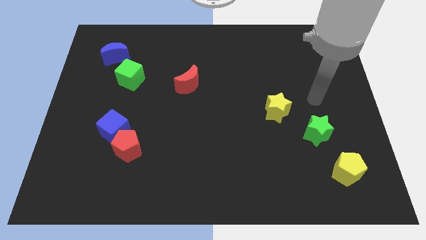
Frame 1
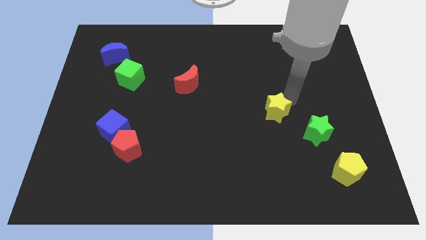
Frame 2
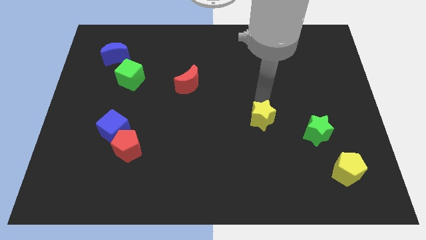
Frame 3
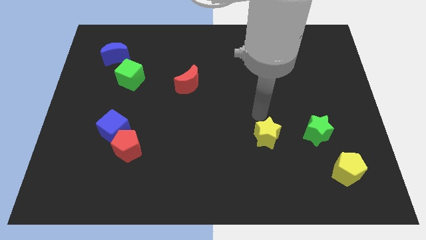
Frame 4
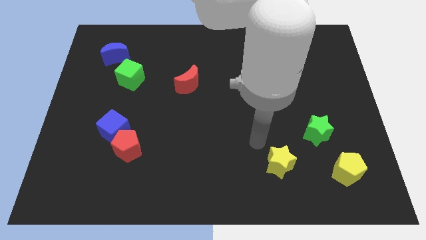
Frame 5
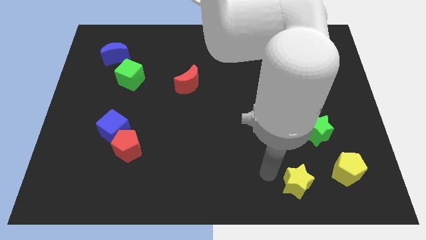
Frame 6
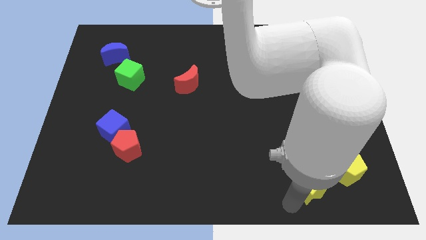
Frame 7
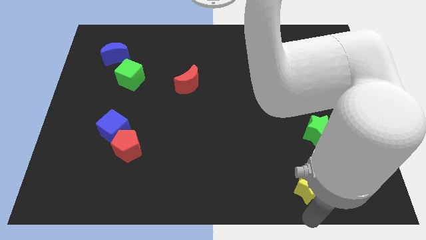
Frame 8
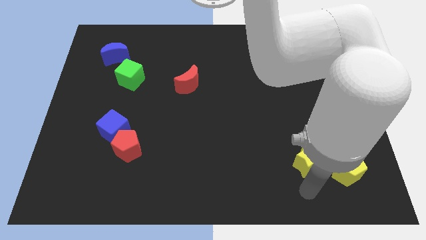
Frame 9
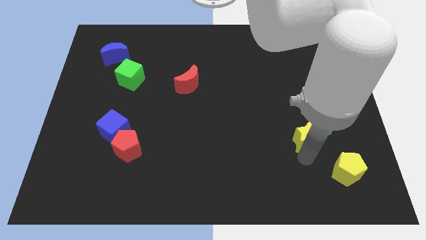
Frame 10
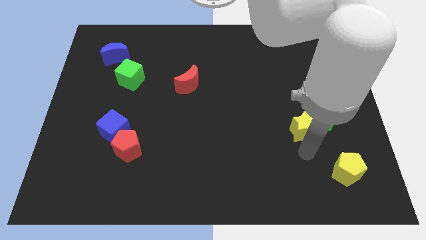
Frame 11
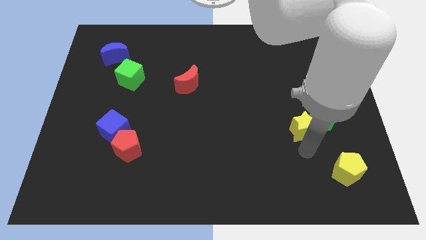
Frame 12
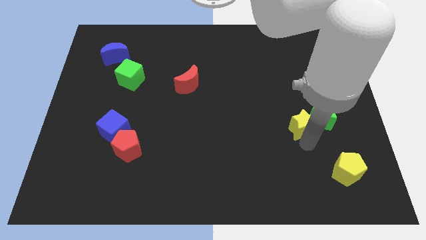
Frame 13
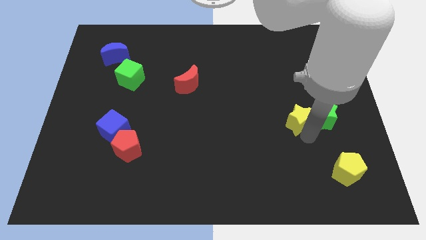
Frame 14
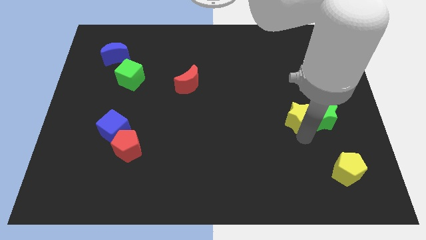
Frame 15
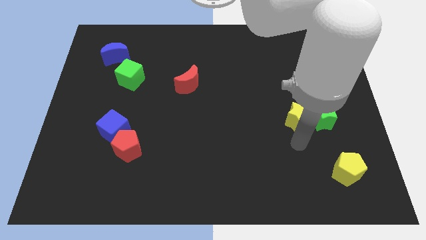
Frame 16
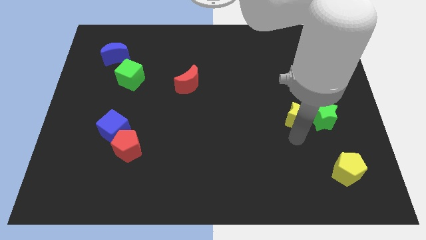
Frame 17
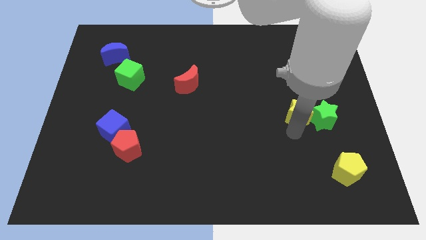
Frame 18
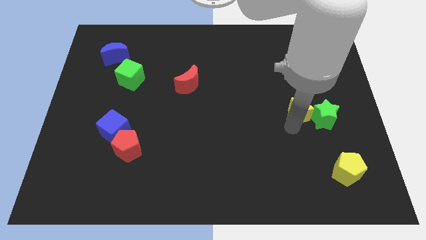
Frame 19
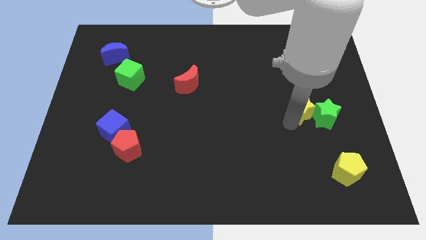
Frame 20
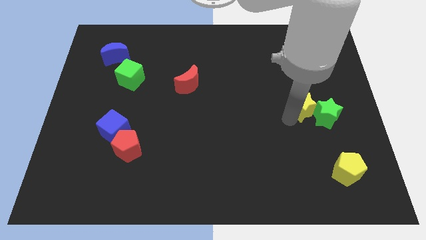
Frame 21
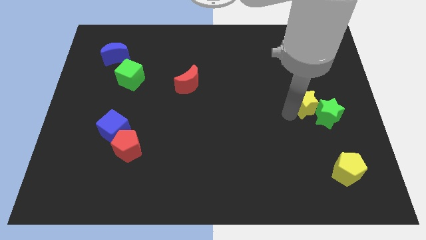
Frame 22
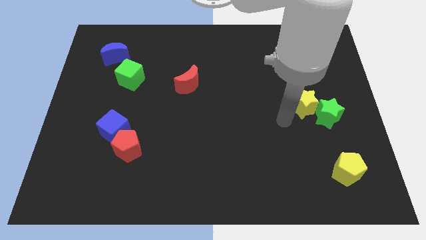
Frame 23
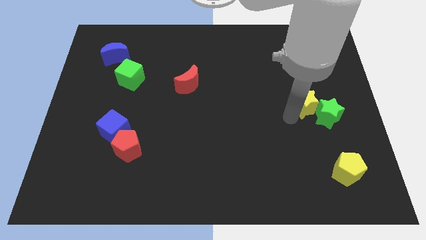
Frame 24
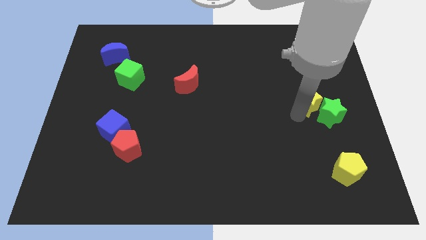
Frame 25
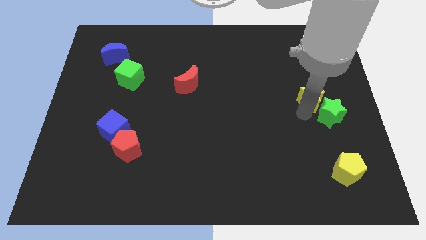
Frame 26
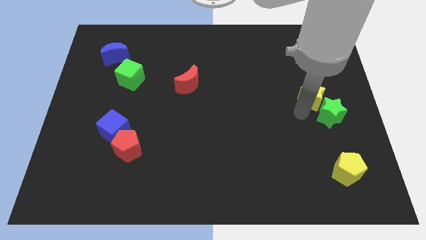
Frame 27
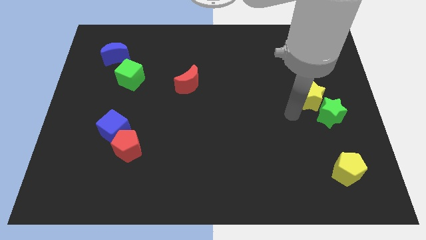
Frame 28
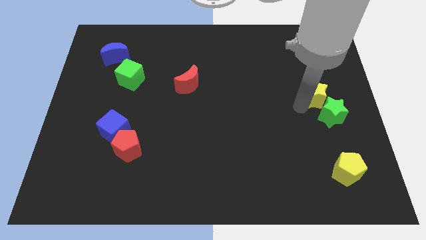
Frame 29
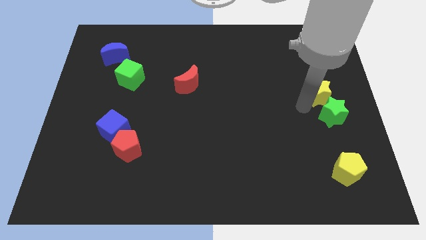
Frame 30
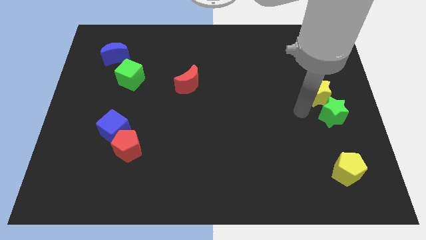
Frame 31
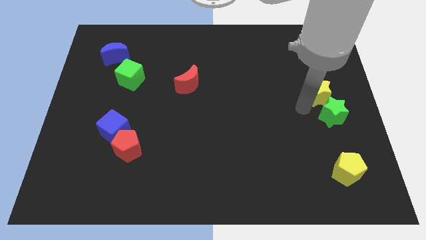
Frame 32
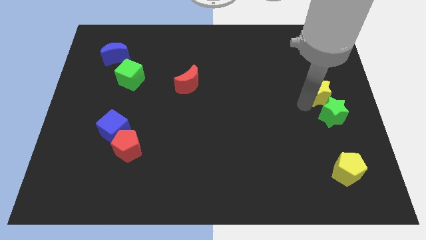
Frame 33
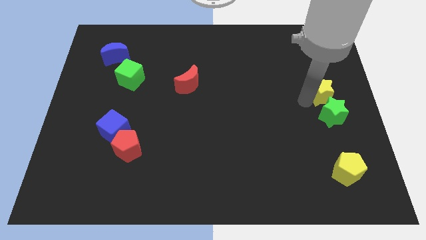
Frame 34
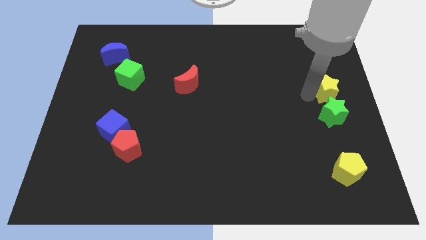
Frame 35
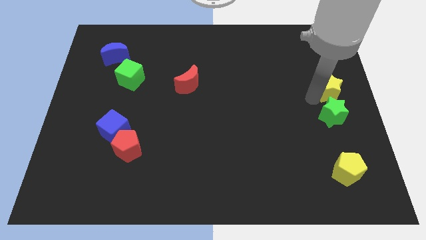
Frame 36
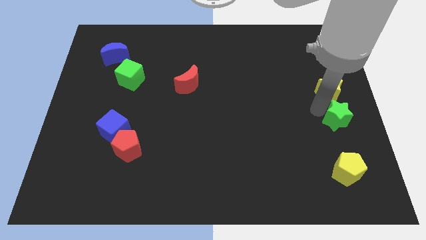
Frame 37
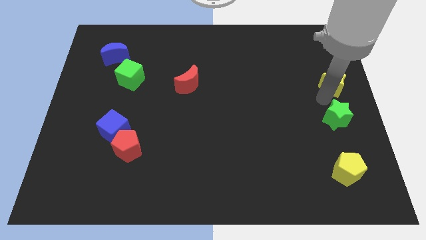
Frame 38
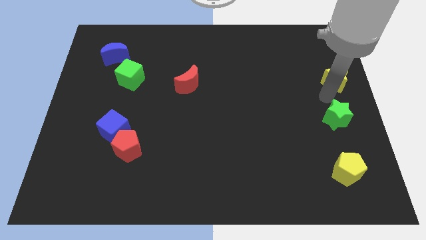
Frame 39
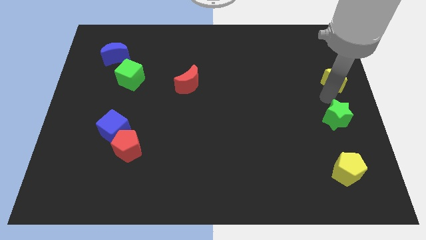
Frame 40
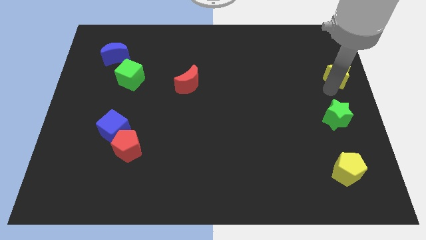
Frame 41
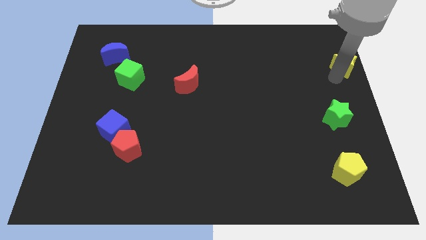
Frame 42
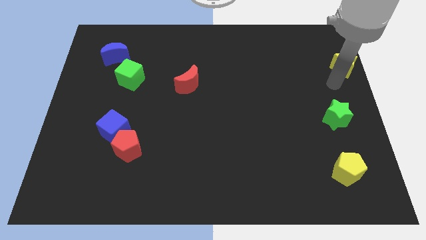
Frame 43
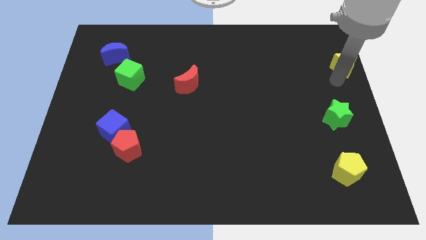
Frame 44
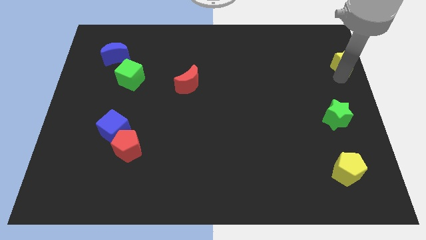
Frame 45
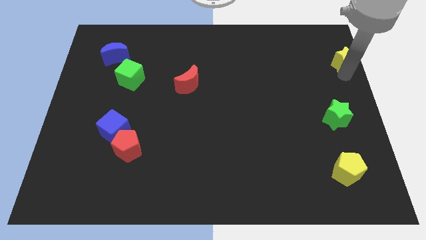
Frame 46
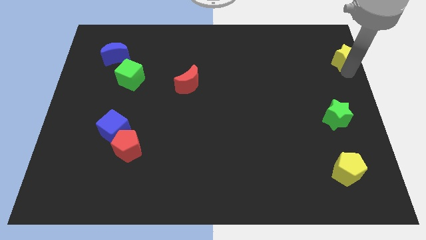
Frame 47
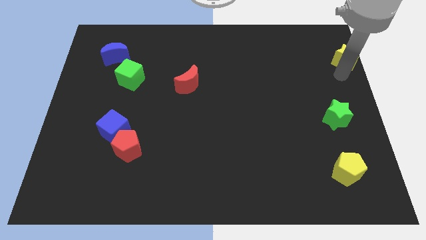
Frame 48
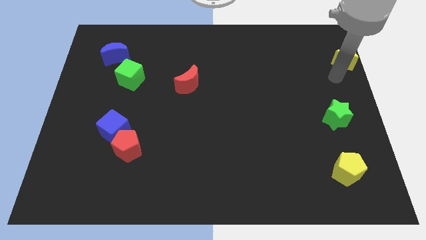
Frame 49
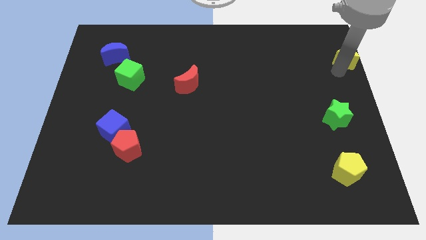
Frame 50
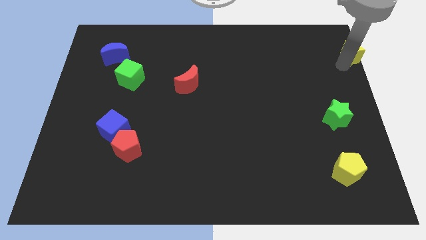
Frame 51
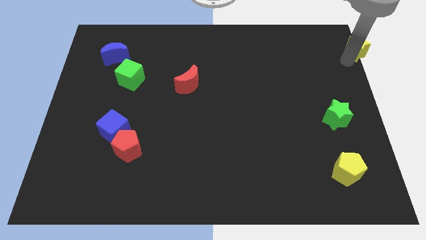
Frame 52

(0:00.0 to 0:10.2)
slide the yellow star to the upper right corner

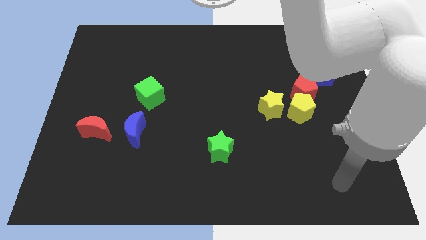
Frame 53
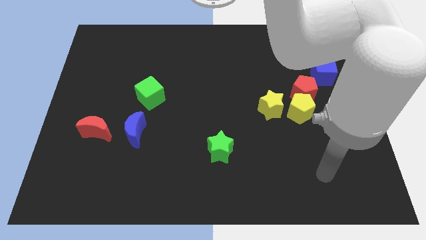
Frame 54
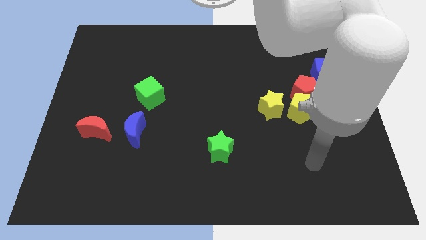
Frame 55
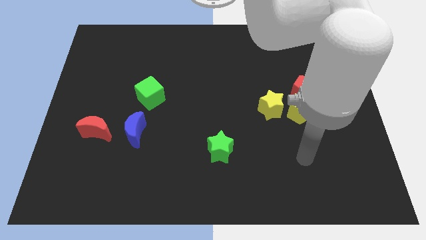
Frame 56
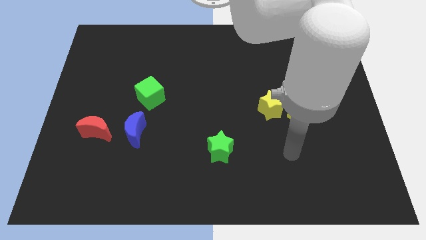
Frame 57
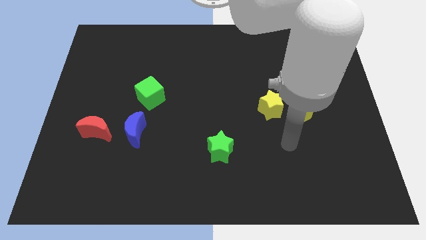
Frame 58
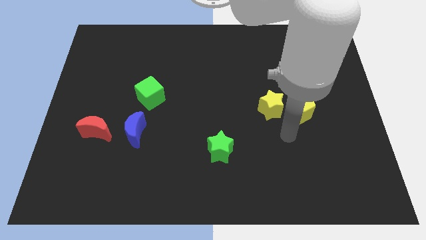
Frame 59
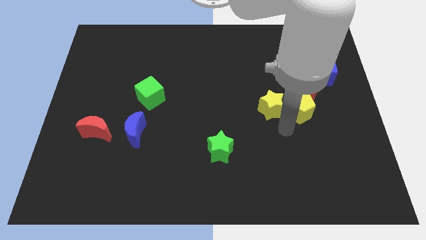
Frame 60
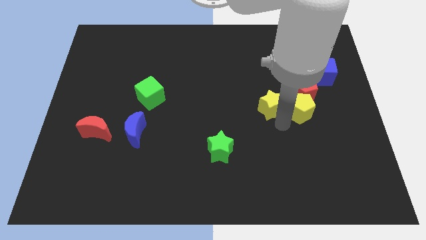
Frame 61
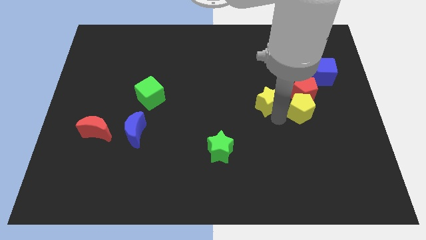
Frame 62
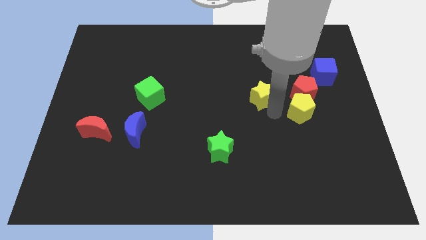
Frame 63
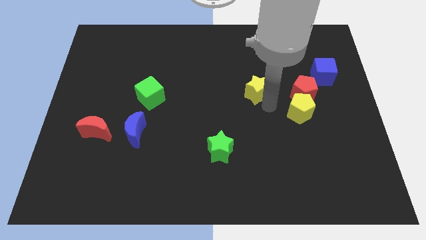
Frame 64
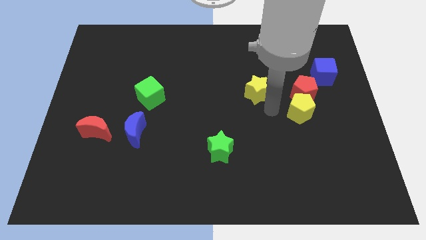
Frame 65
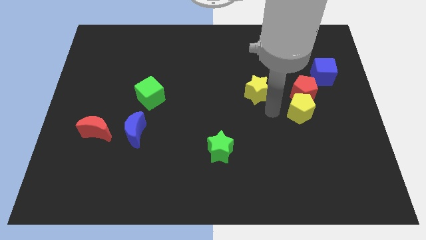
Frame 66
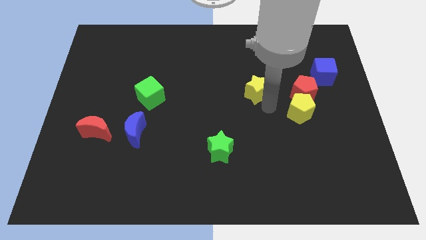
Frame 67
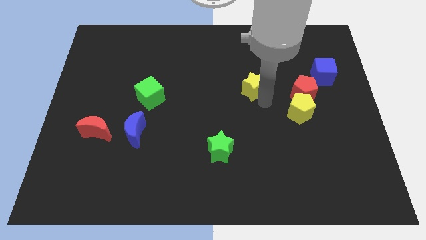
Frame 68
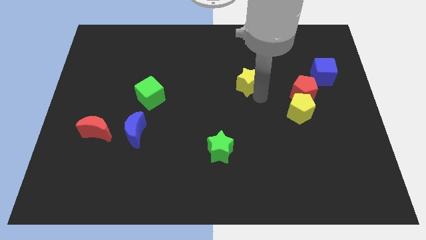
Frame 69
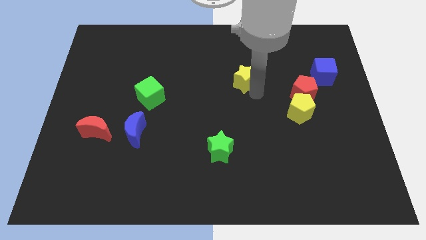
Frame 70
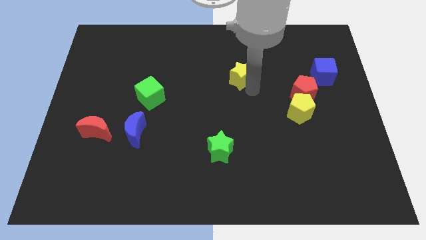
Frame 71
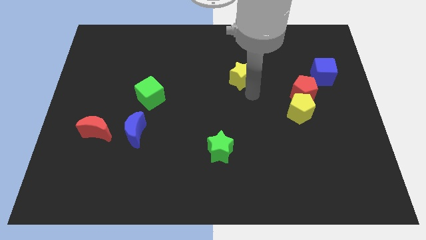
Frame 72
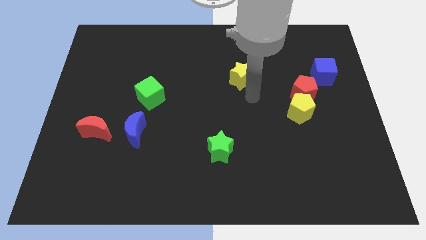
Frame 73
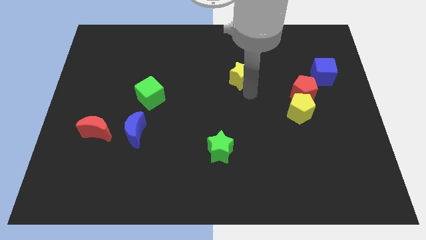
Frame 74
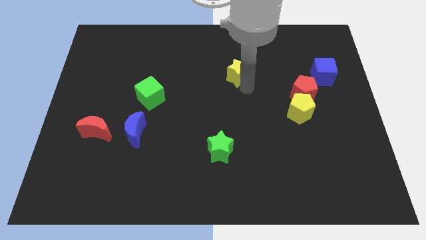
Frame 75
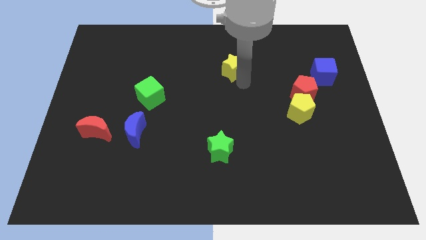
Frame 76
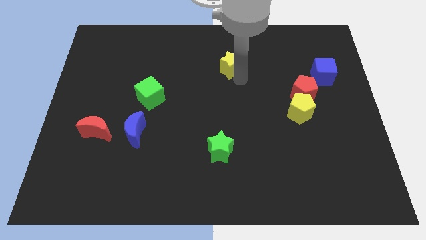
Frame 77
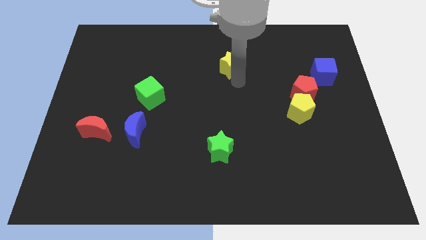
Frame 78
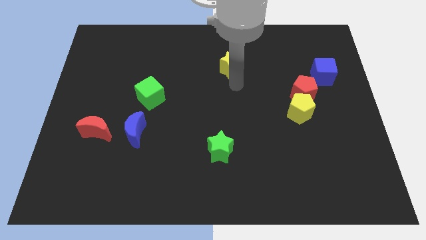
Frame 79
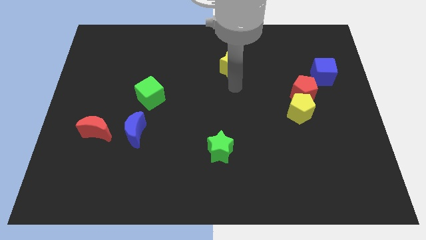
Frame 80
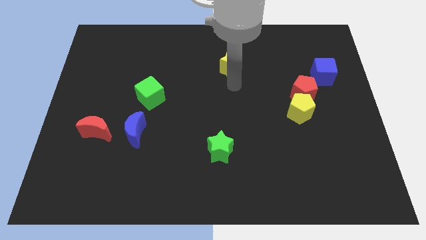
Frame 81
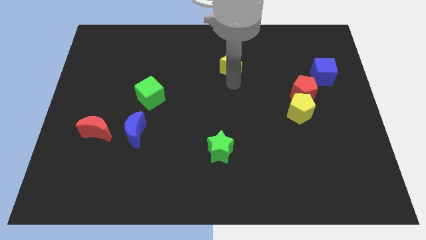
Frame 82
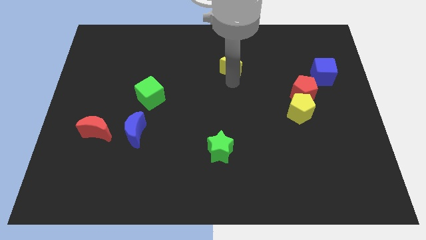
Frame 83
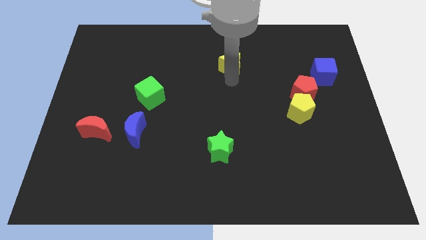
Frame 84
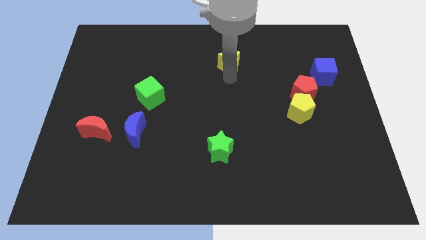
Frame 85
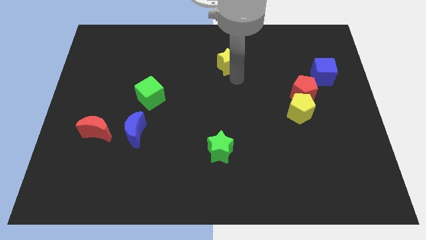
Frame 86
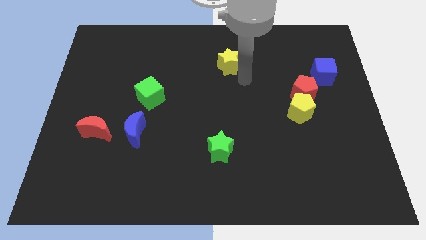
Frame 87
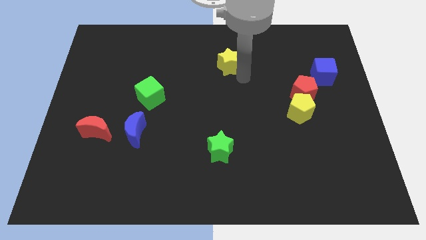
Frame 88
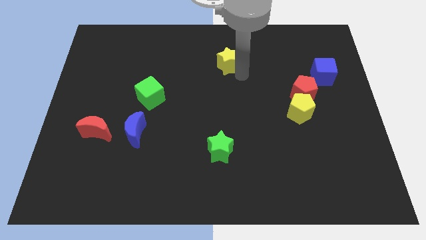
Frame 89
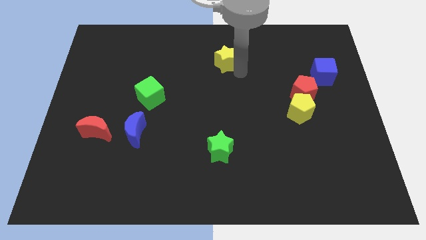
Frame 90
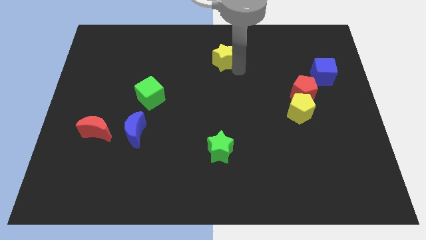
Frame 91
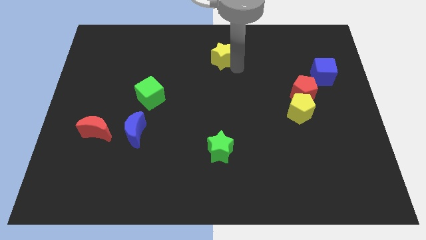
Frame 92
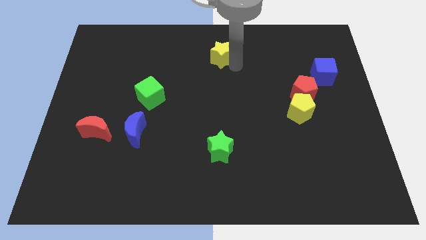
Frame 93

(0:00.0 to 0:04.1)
move the yellow star to the top
